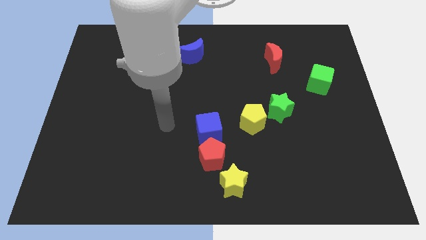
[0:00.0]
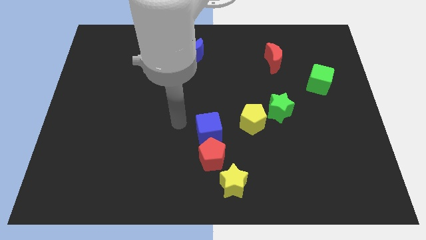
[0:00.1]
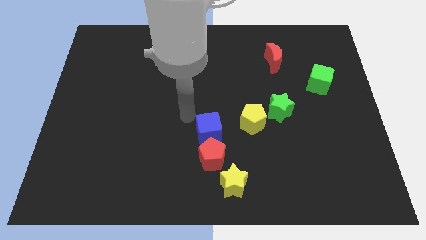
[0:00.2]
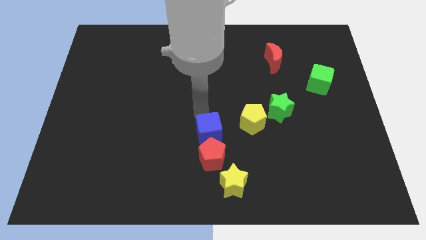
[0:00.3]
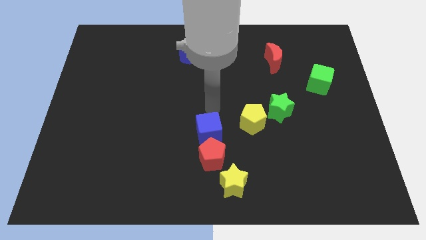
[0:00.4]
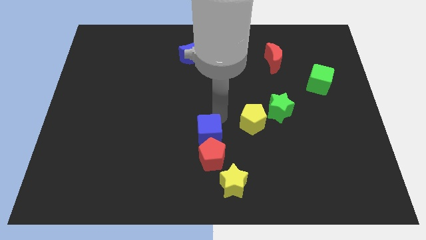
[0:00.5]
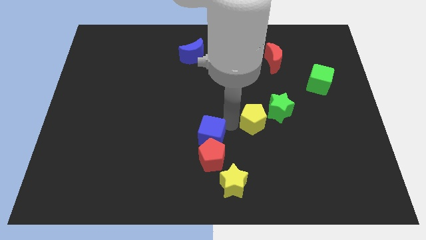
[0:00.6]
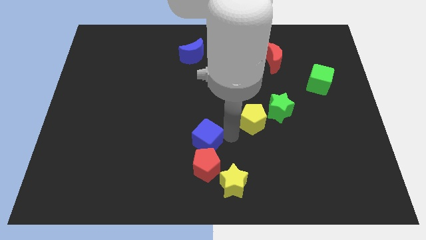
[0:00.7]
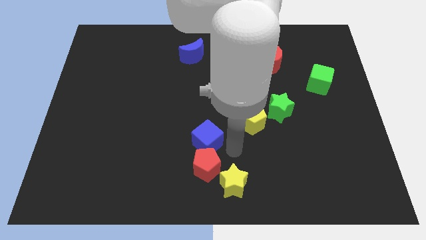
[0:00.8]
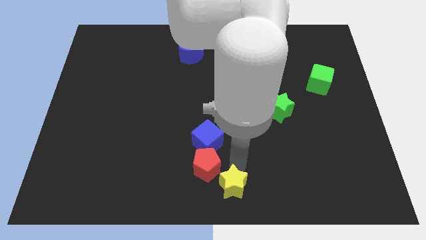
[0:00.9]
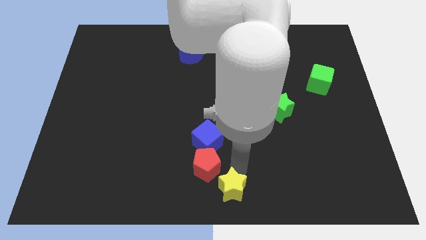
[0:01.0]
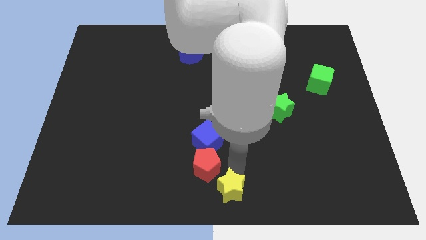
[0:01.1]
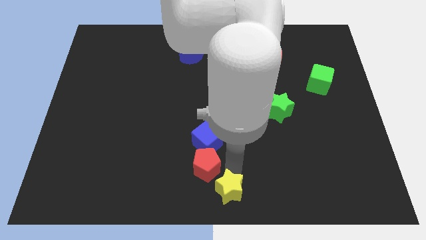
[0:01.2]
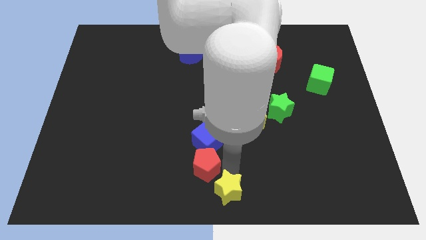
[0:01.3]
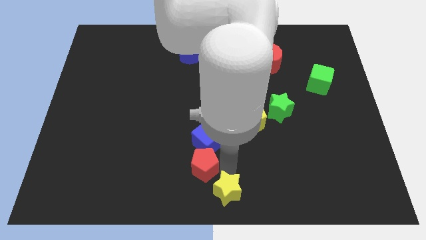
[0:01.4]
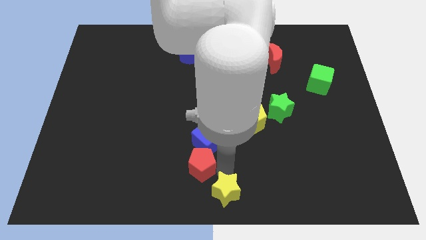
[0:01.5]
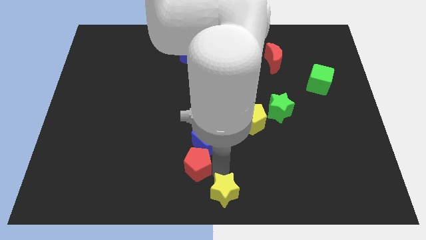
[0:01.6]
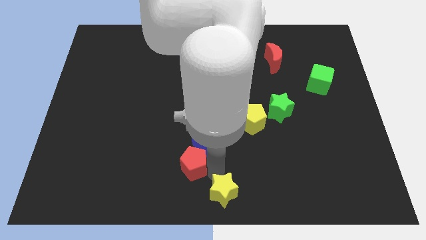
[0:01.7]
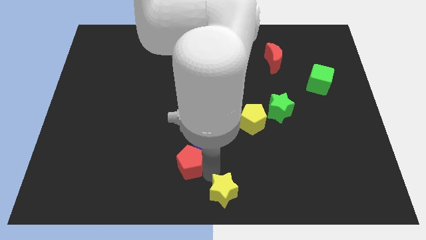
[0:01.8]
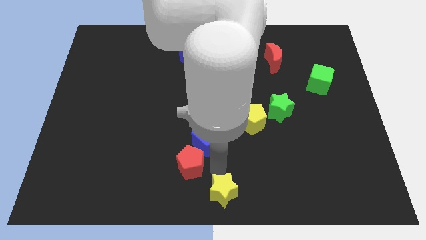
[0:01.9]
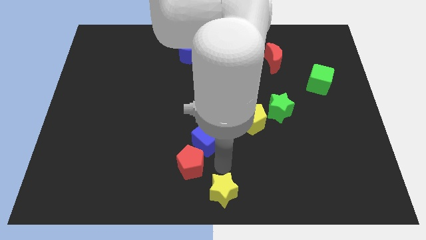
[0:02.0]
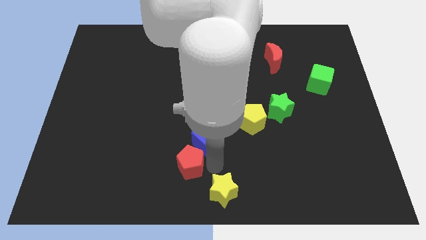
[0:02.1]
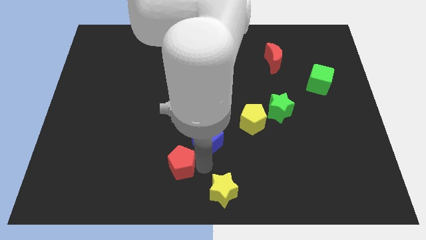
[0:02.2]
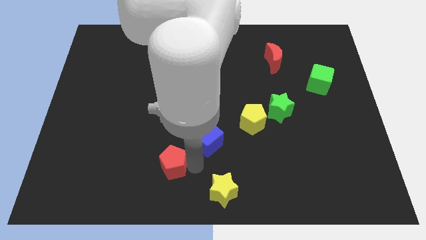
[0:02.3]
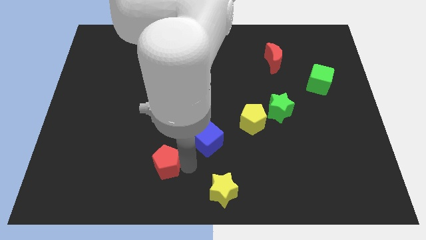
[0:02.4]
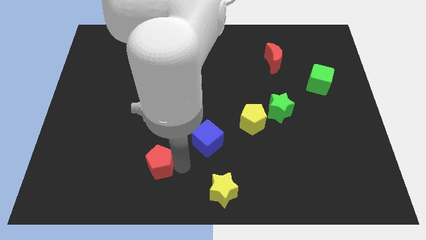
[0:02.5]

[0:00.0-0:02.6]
pull the red pentagon apart from the blue cube and yellow star

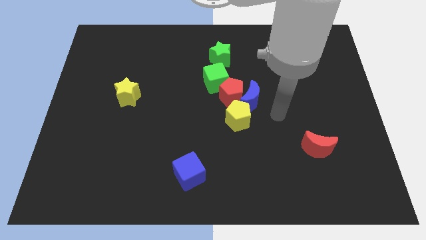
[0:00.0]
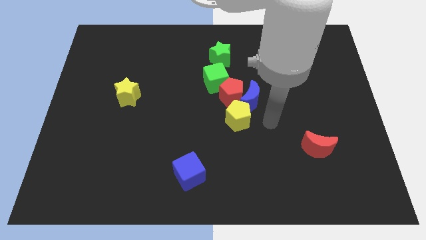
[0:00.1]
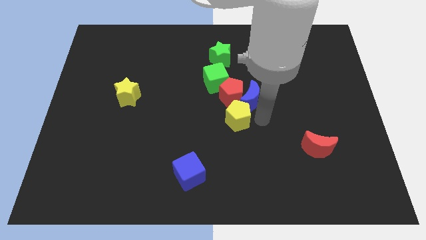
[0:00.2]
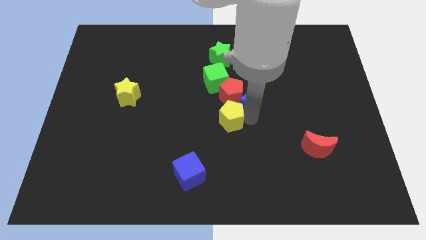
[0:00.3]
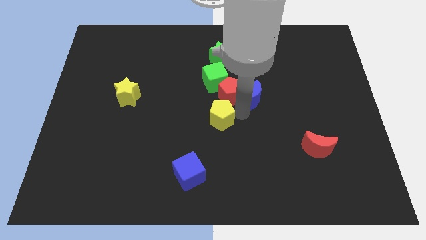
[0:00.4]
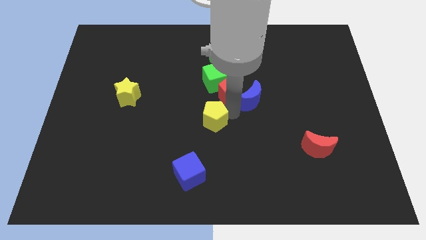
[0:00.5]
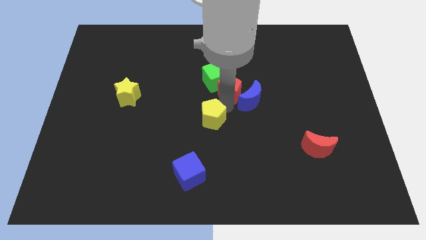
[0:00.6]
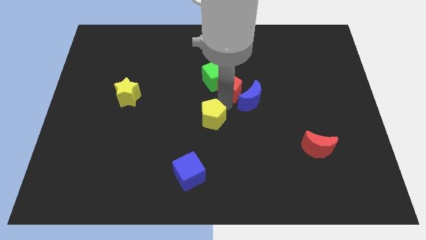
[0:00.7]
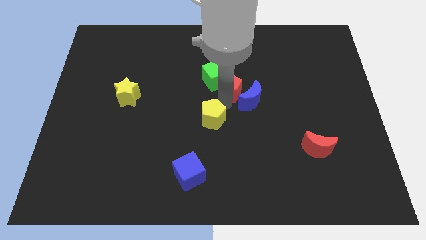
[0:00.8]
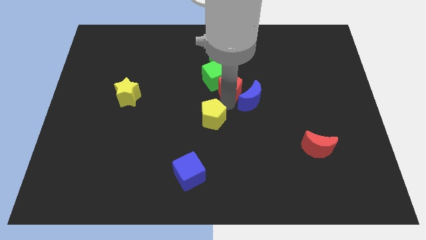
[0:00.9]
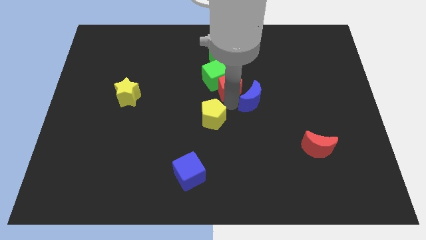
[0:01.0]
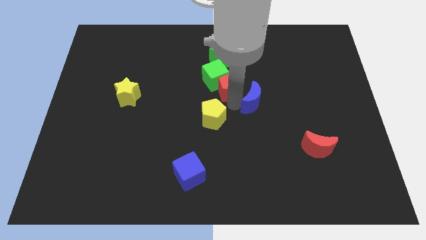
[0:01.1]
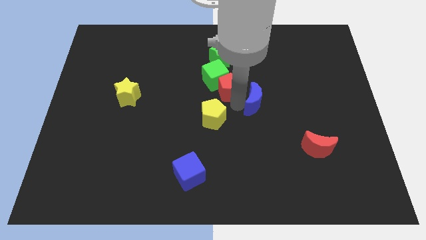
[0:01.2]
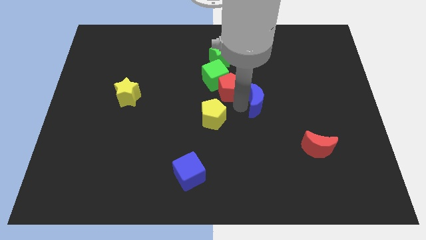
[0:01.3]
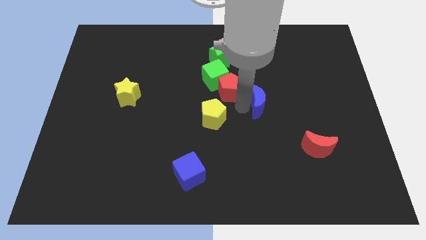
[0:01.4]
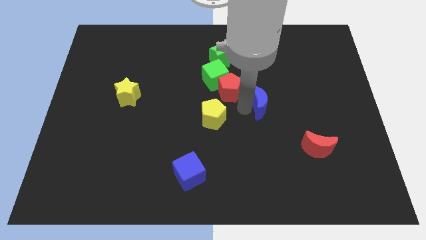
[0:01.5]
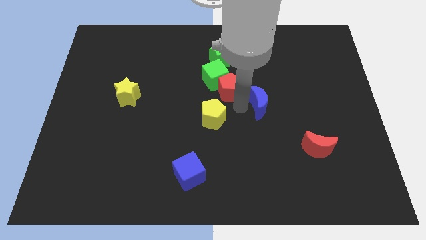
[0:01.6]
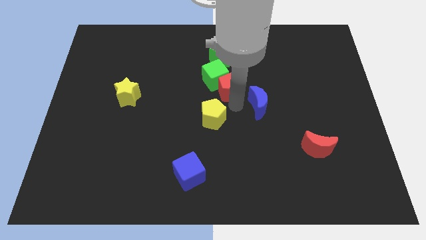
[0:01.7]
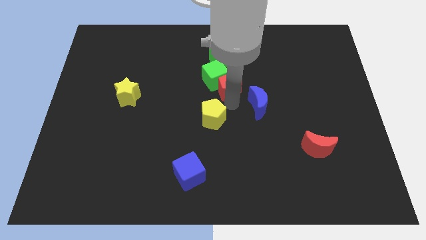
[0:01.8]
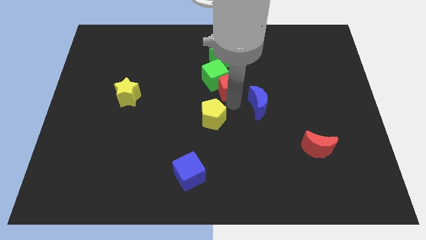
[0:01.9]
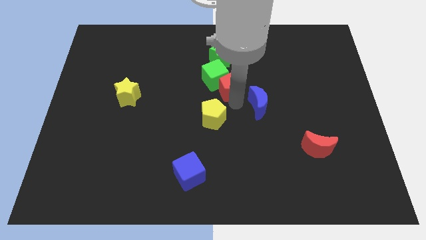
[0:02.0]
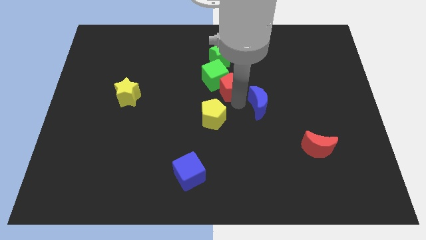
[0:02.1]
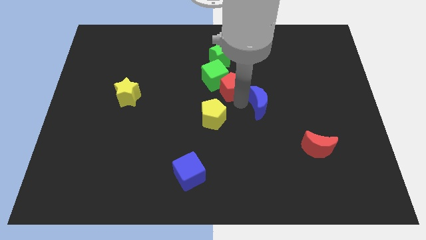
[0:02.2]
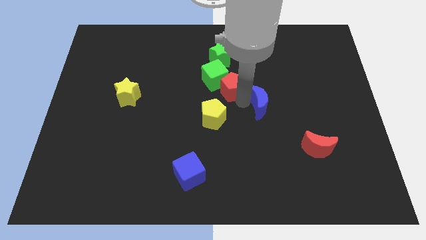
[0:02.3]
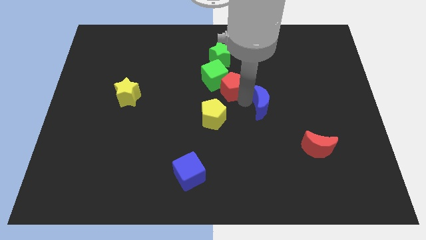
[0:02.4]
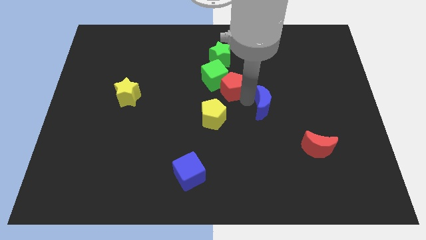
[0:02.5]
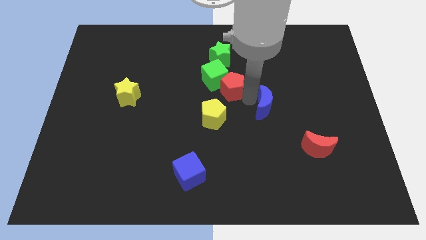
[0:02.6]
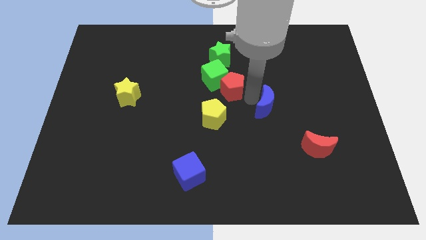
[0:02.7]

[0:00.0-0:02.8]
pull the blue moon apart from the red pentagon and yellow pentagon

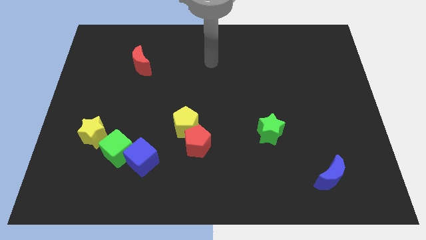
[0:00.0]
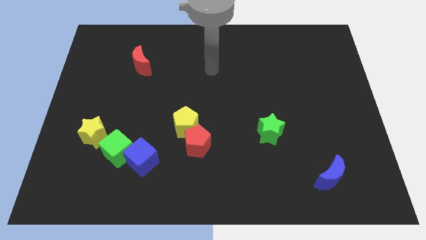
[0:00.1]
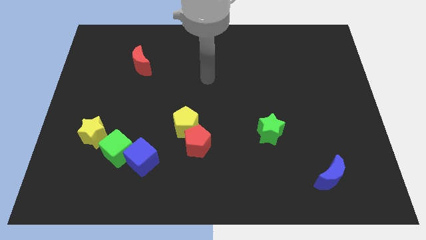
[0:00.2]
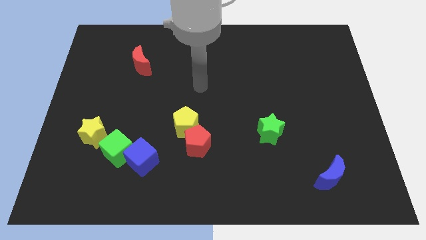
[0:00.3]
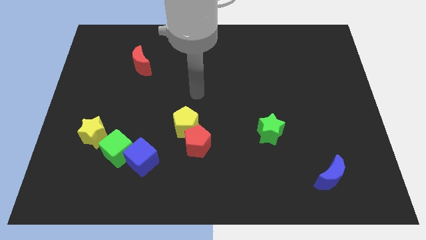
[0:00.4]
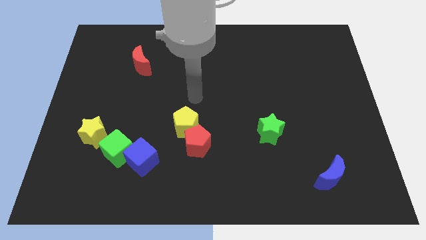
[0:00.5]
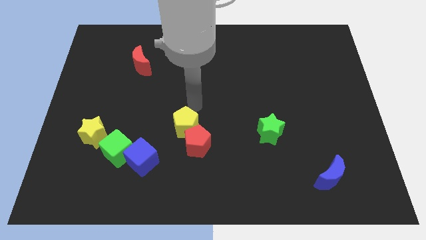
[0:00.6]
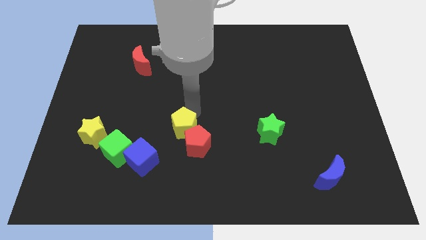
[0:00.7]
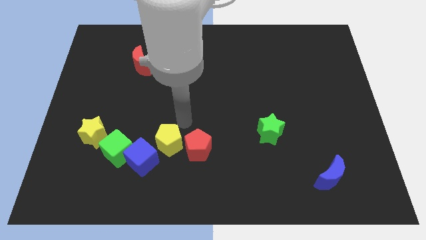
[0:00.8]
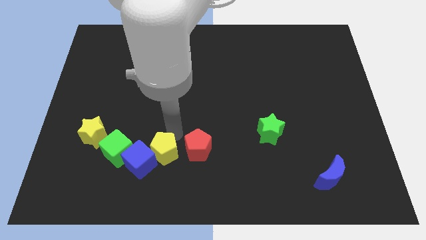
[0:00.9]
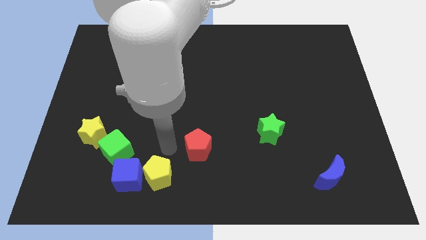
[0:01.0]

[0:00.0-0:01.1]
pull the red pentagon apart from the yellow pentagon

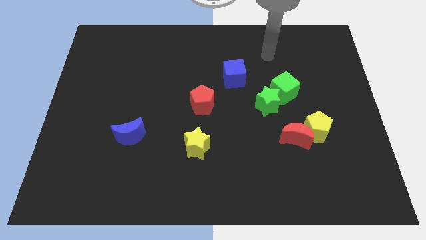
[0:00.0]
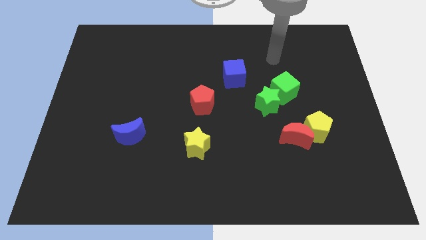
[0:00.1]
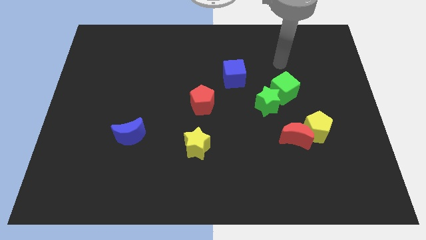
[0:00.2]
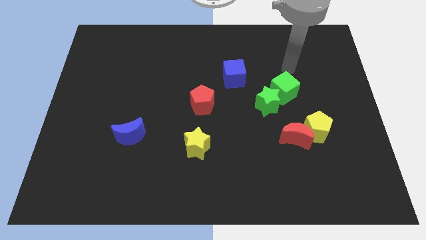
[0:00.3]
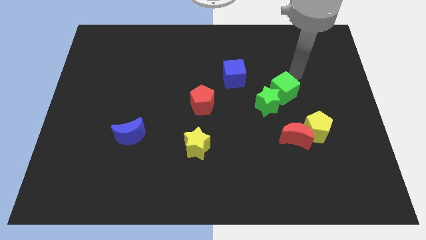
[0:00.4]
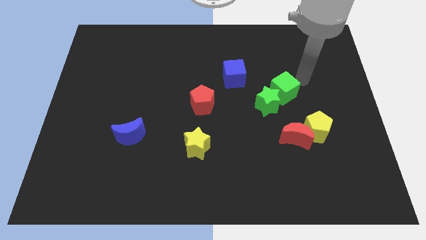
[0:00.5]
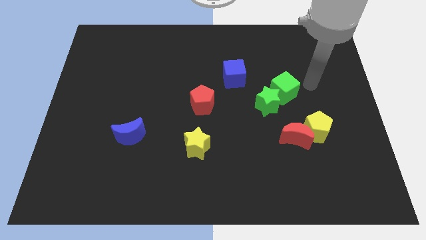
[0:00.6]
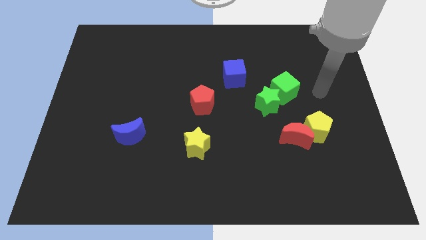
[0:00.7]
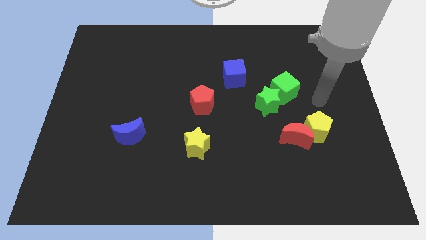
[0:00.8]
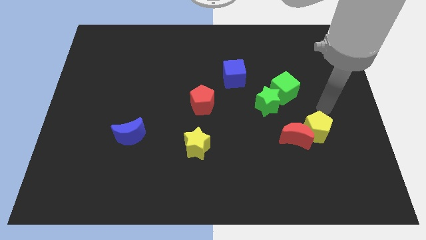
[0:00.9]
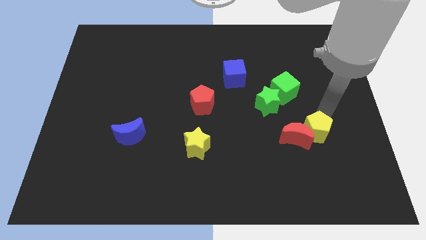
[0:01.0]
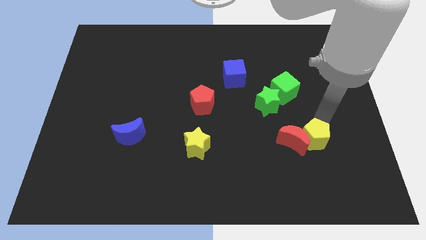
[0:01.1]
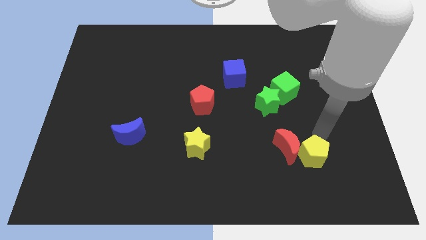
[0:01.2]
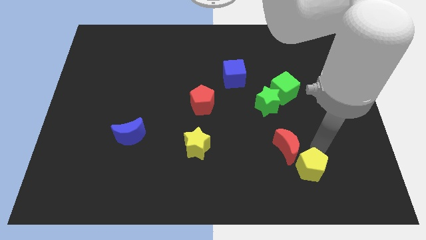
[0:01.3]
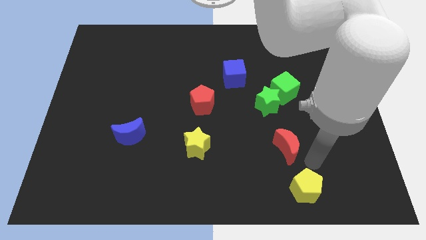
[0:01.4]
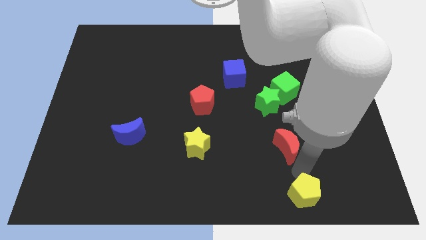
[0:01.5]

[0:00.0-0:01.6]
move the red moon away from the yellow pentagon

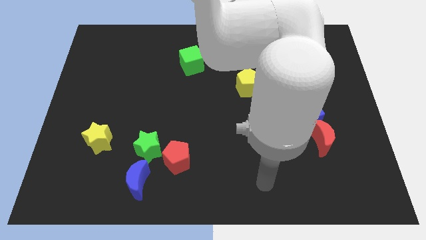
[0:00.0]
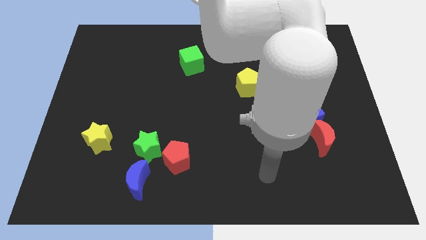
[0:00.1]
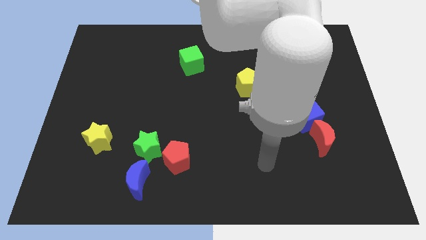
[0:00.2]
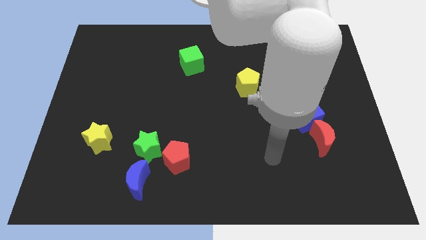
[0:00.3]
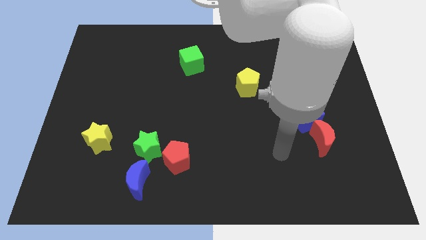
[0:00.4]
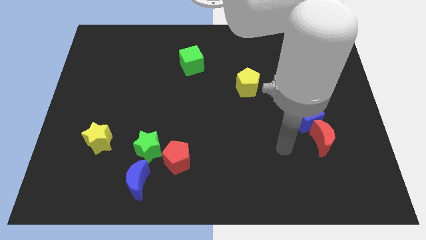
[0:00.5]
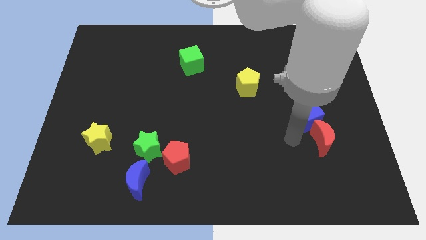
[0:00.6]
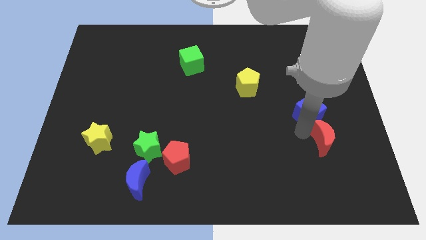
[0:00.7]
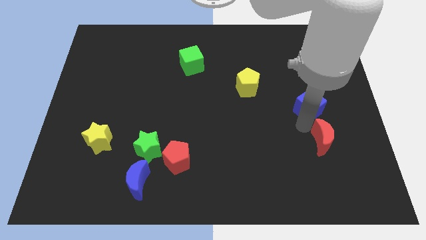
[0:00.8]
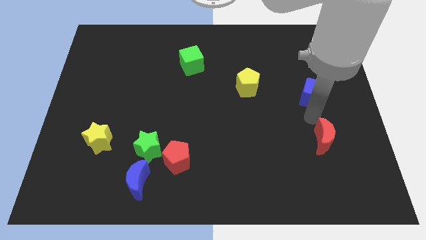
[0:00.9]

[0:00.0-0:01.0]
move the red moon away from the blue cube

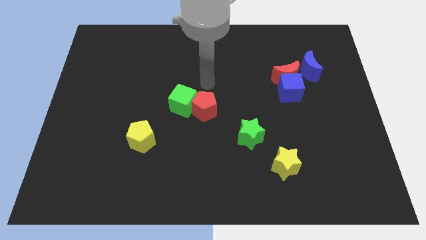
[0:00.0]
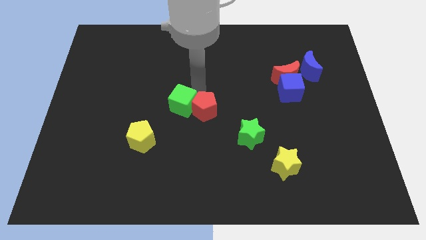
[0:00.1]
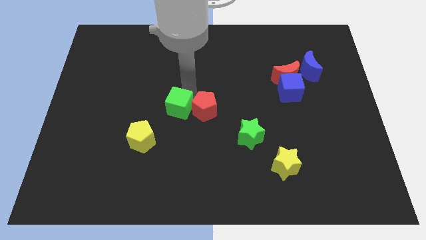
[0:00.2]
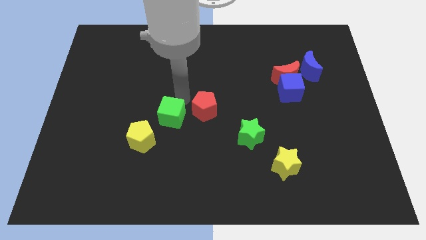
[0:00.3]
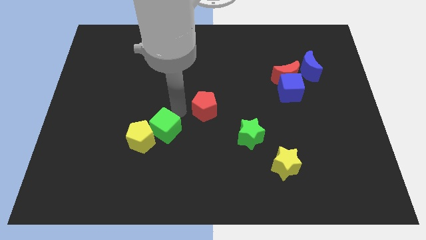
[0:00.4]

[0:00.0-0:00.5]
move the red pentagon away from the green cube
